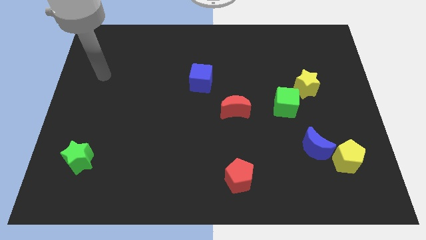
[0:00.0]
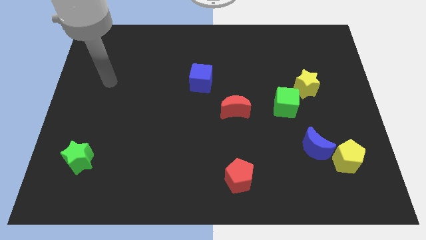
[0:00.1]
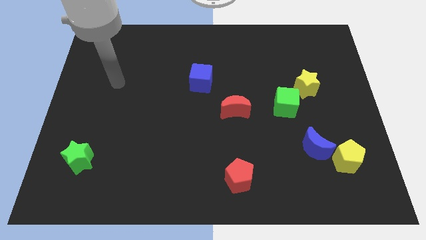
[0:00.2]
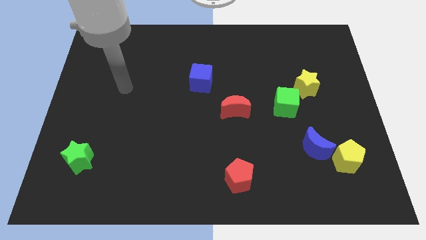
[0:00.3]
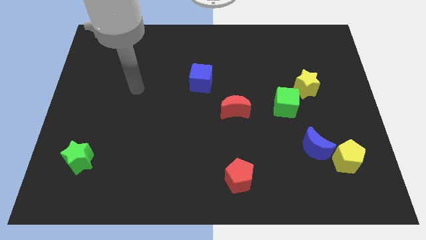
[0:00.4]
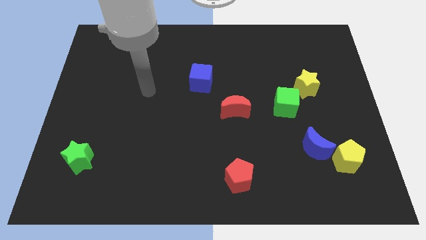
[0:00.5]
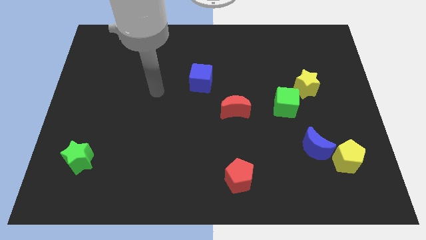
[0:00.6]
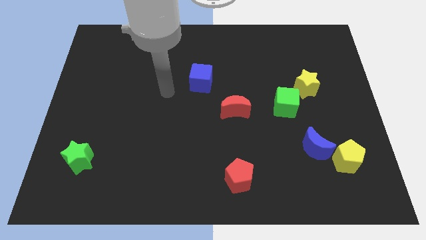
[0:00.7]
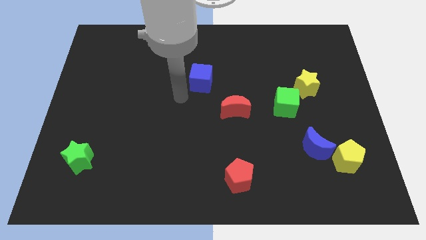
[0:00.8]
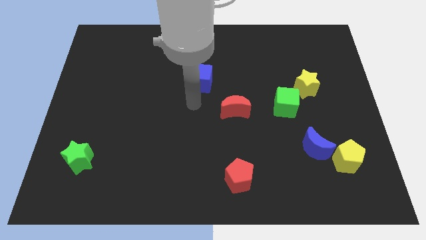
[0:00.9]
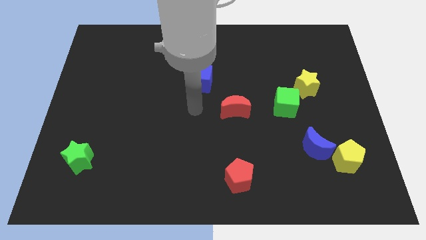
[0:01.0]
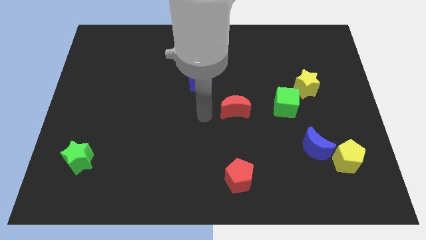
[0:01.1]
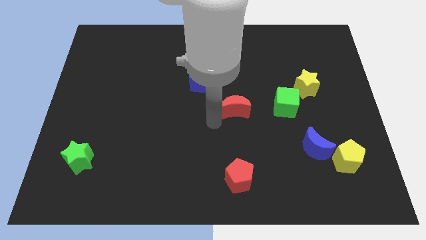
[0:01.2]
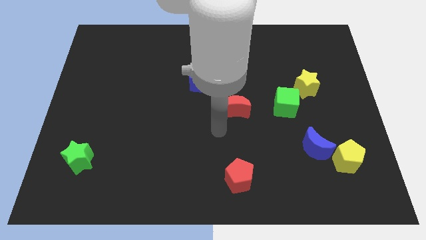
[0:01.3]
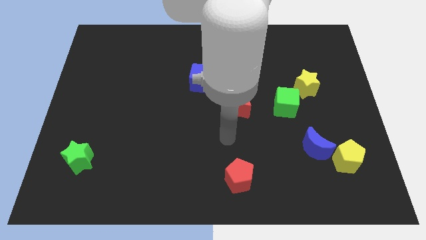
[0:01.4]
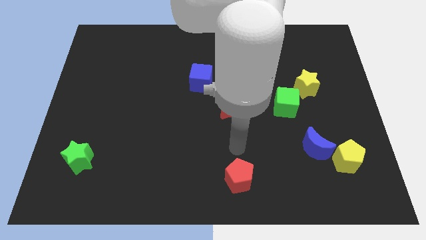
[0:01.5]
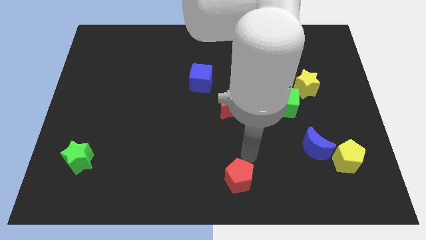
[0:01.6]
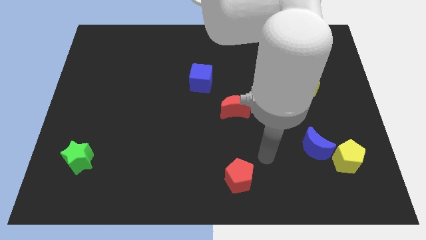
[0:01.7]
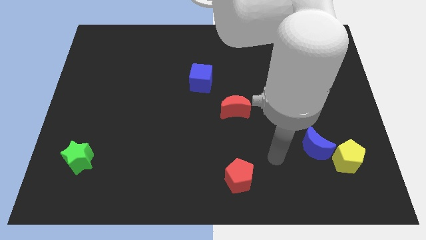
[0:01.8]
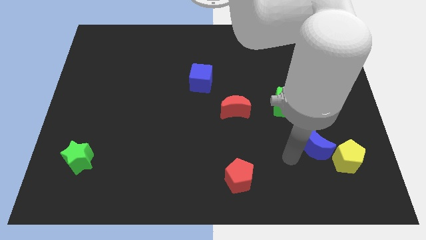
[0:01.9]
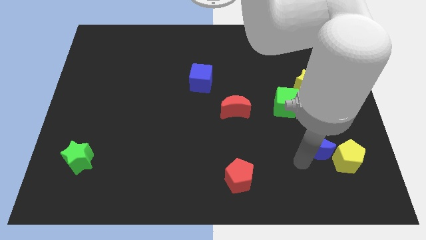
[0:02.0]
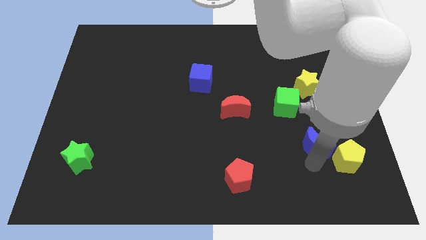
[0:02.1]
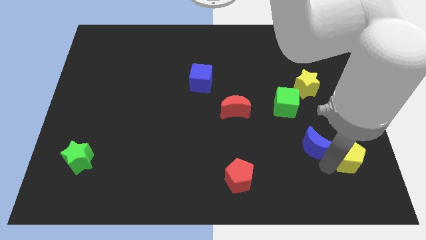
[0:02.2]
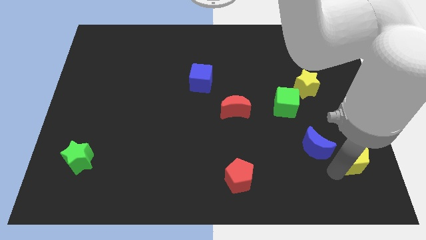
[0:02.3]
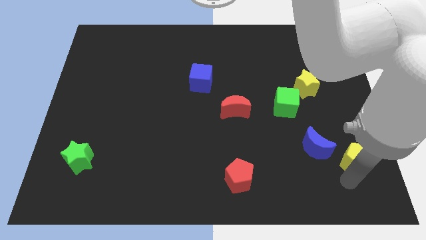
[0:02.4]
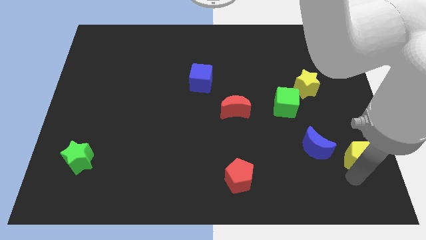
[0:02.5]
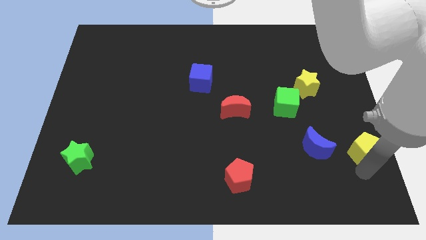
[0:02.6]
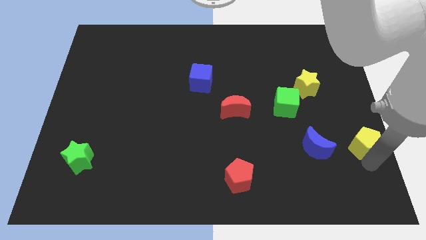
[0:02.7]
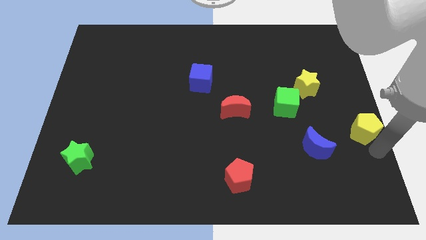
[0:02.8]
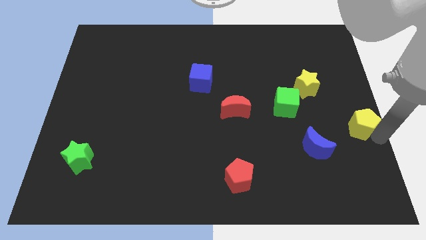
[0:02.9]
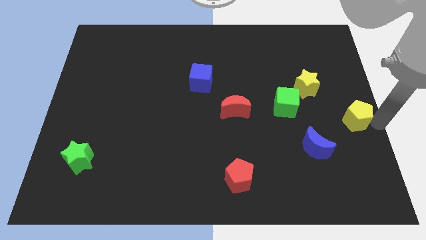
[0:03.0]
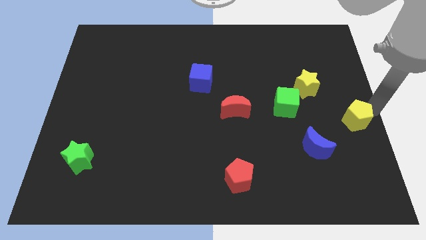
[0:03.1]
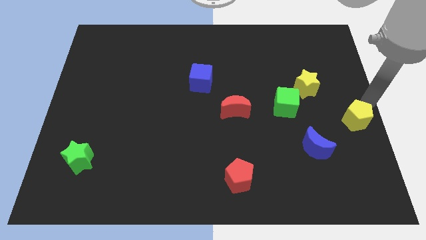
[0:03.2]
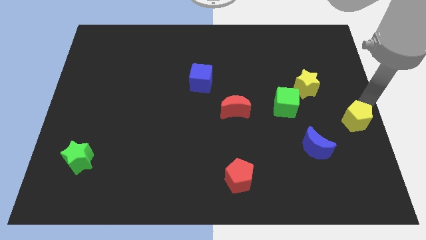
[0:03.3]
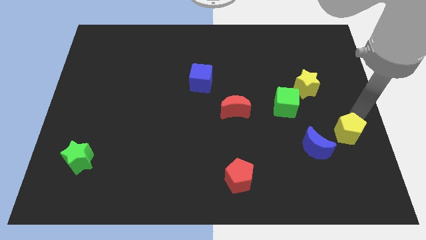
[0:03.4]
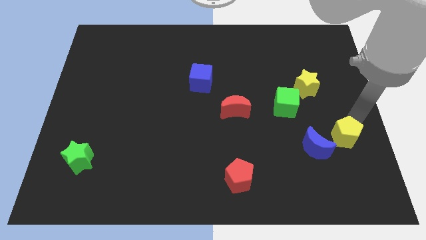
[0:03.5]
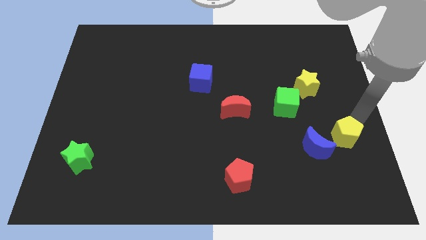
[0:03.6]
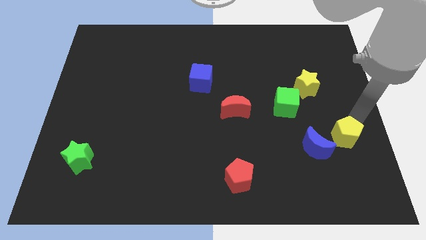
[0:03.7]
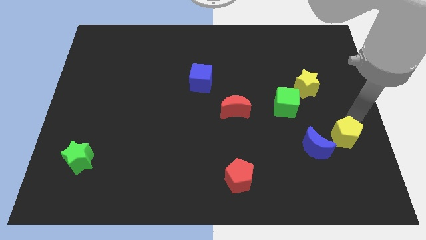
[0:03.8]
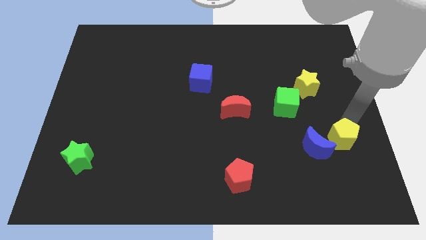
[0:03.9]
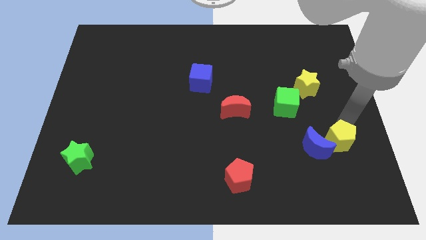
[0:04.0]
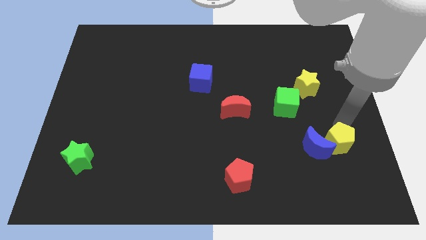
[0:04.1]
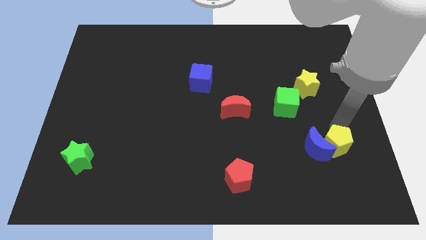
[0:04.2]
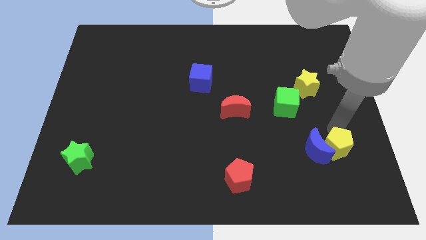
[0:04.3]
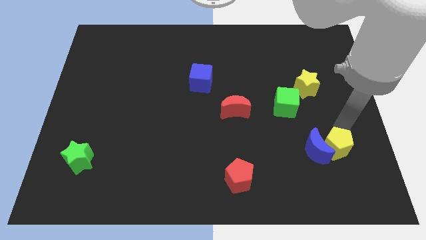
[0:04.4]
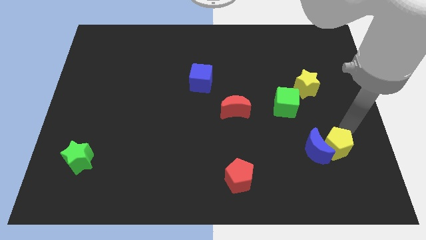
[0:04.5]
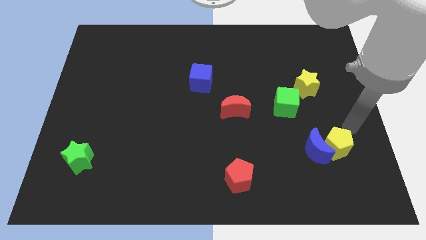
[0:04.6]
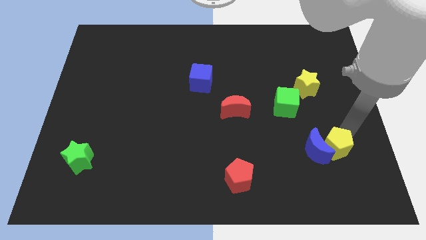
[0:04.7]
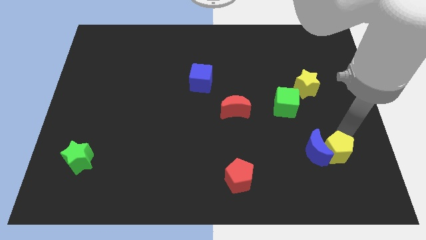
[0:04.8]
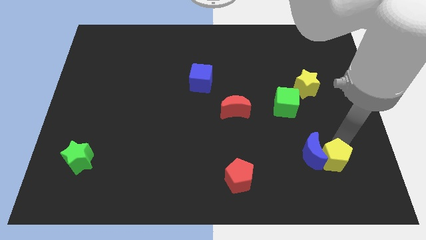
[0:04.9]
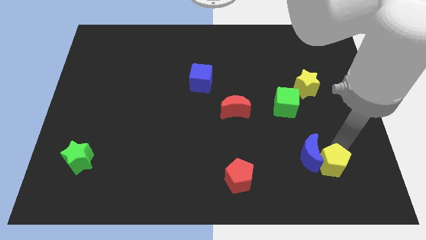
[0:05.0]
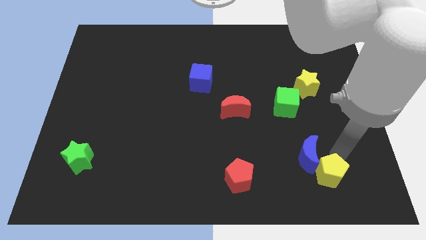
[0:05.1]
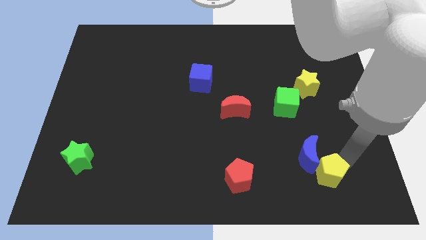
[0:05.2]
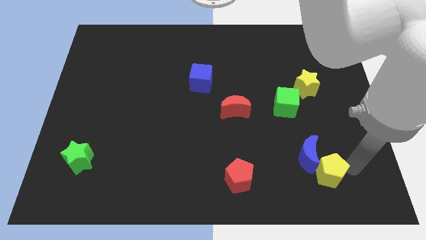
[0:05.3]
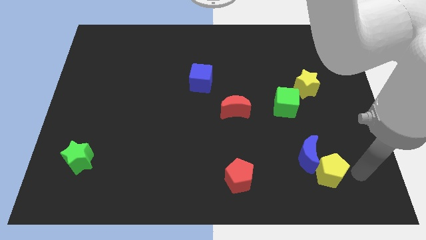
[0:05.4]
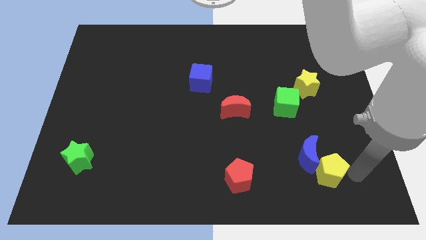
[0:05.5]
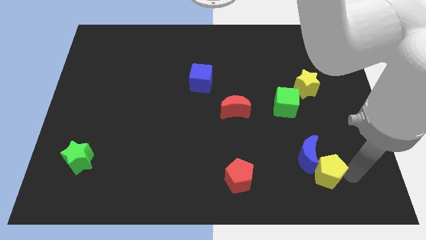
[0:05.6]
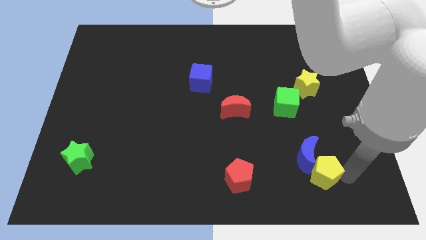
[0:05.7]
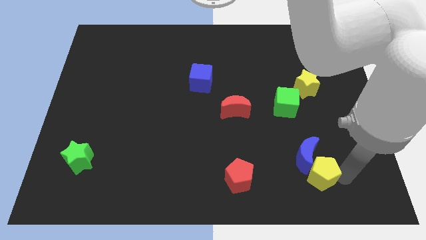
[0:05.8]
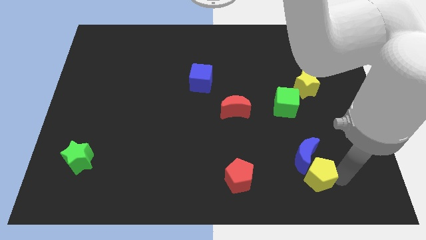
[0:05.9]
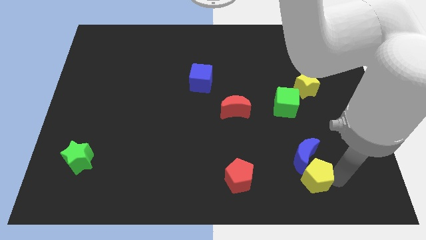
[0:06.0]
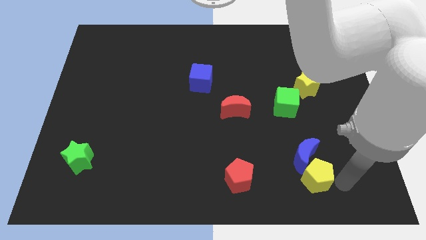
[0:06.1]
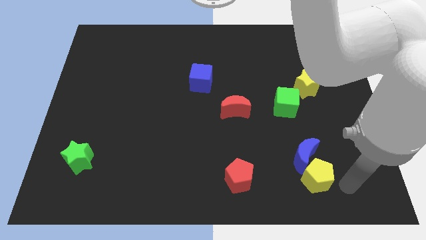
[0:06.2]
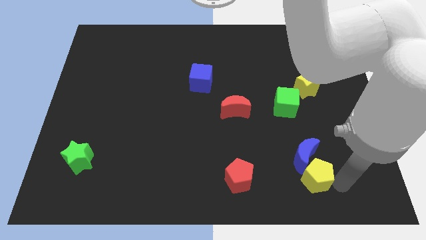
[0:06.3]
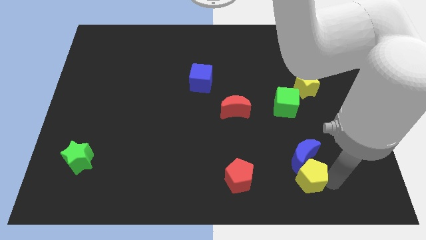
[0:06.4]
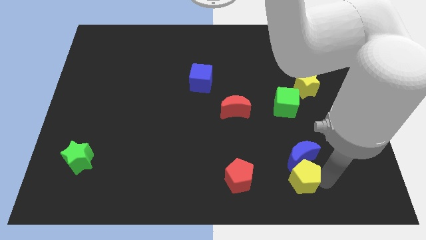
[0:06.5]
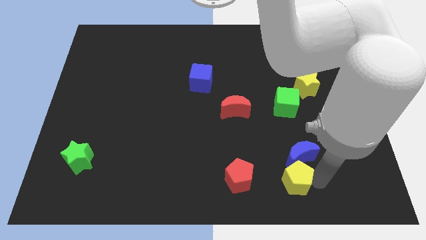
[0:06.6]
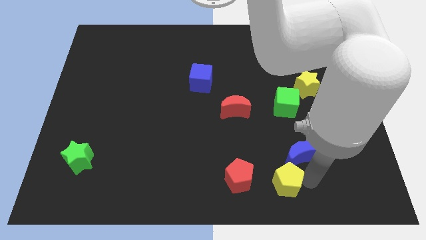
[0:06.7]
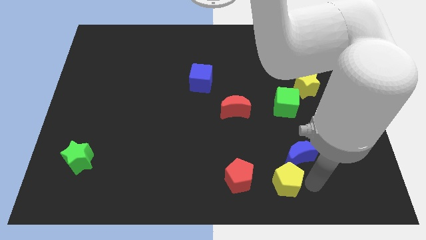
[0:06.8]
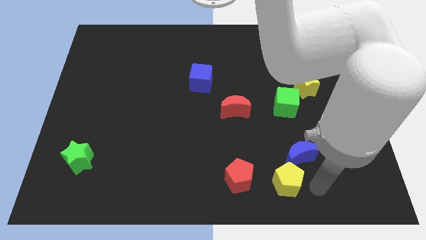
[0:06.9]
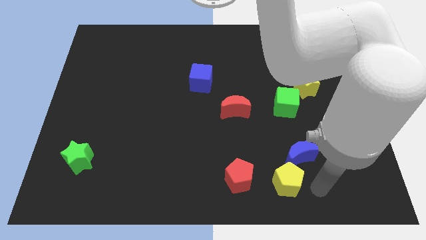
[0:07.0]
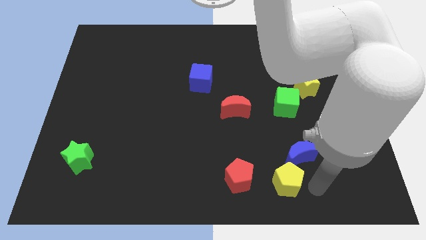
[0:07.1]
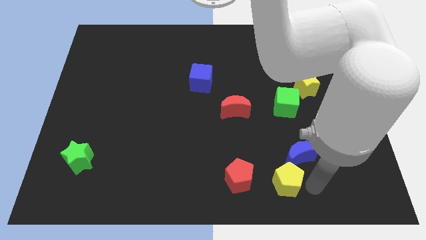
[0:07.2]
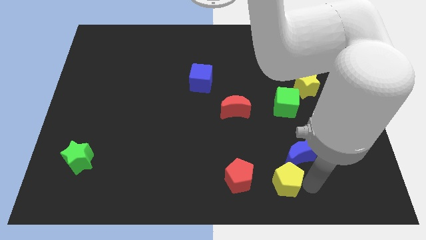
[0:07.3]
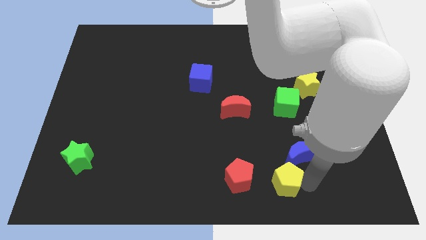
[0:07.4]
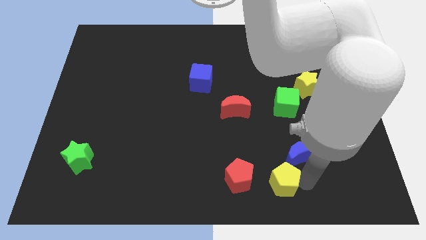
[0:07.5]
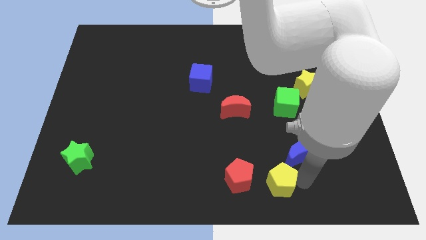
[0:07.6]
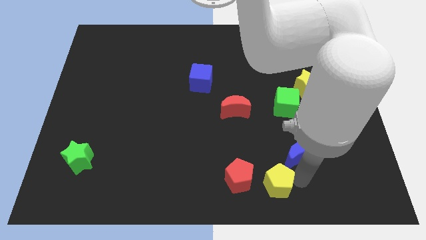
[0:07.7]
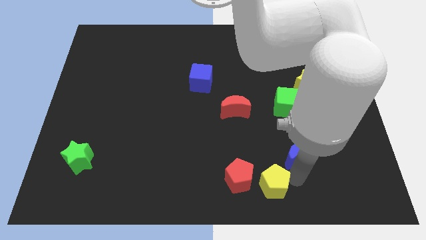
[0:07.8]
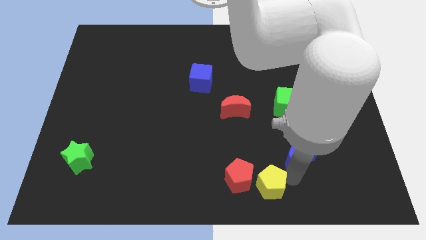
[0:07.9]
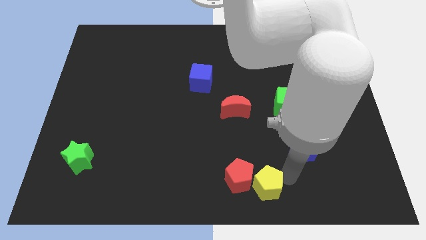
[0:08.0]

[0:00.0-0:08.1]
move the yellow pentagon towards the red pentagon

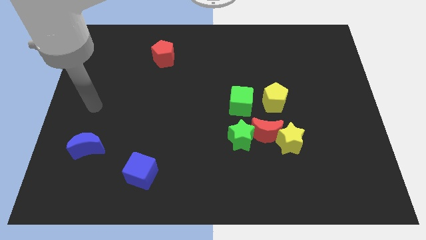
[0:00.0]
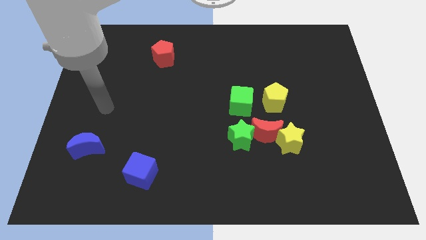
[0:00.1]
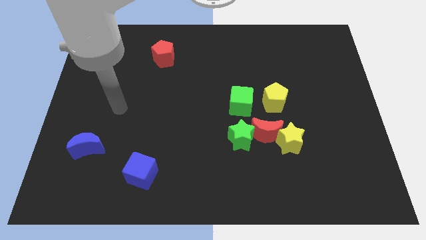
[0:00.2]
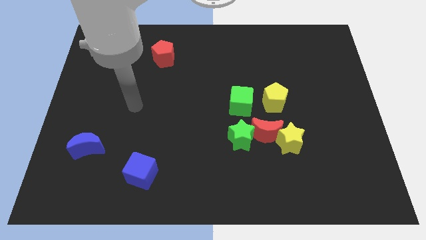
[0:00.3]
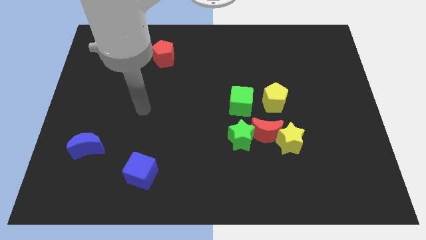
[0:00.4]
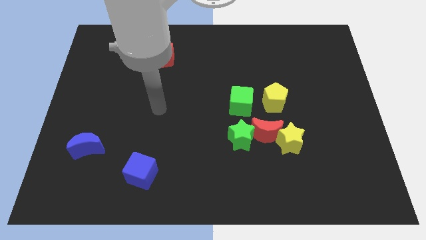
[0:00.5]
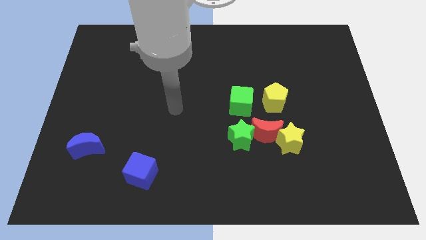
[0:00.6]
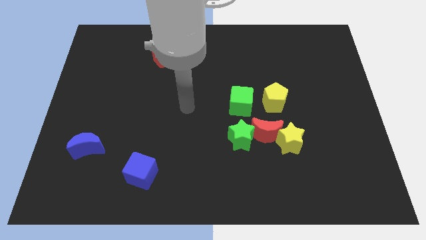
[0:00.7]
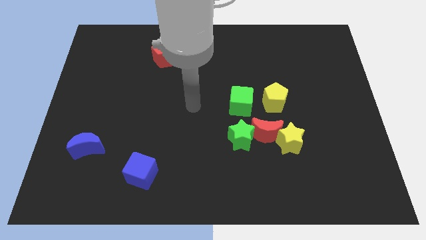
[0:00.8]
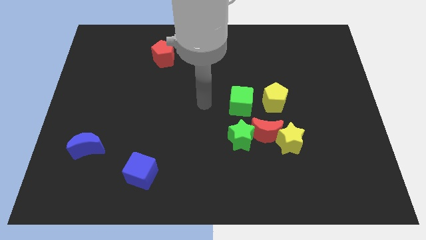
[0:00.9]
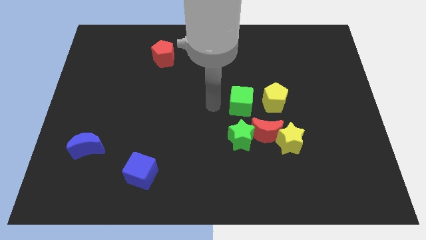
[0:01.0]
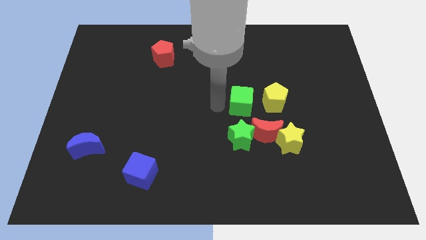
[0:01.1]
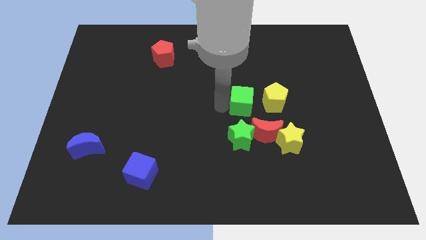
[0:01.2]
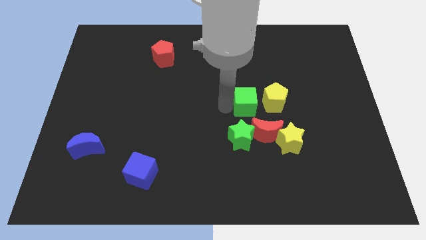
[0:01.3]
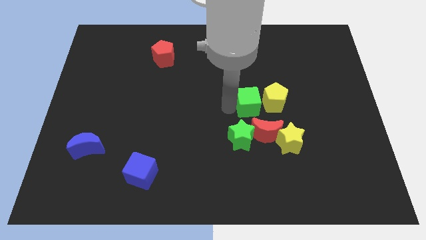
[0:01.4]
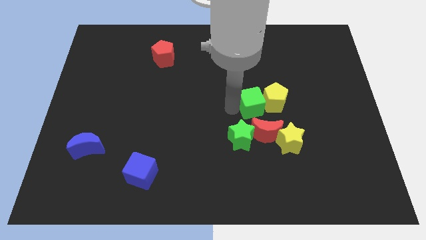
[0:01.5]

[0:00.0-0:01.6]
move the green cube to the yellow pentagon
